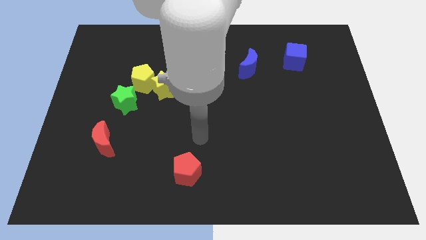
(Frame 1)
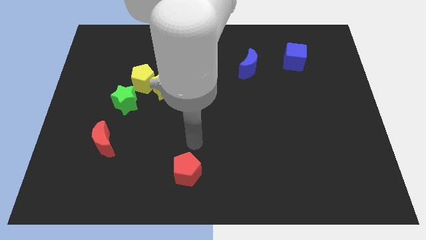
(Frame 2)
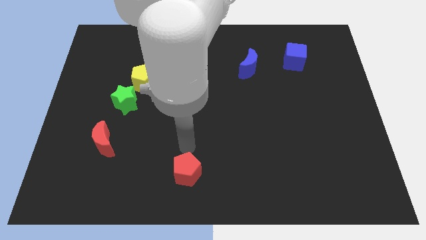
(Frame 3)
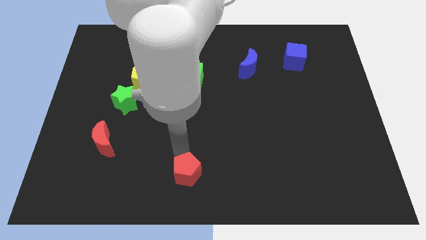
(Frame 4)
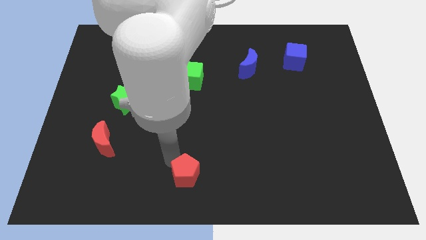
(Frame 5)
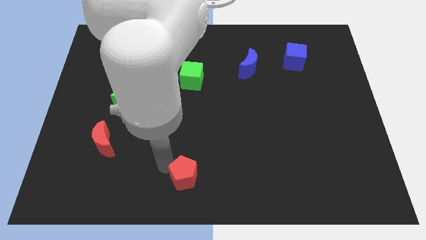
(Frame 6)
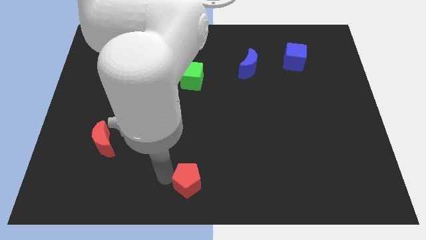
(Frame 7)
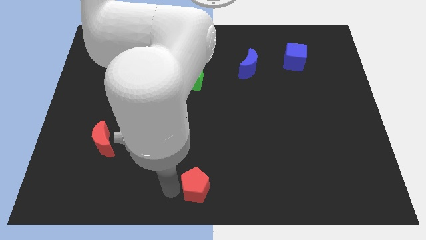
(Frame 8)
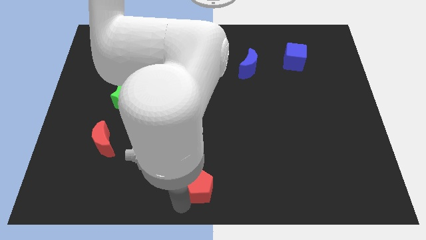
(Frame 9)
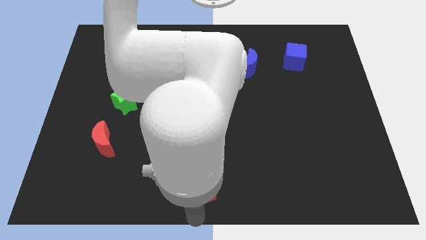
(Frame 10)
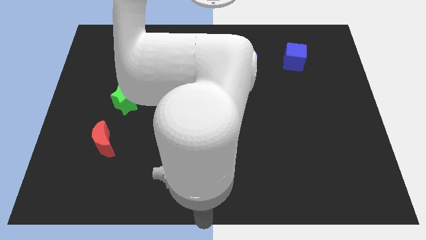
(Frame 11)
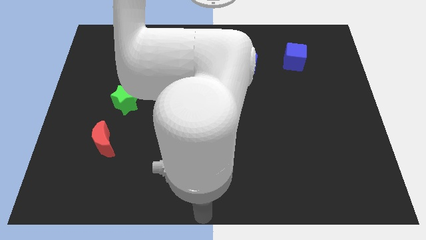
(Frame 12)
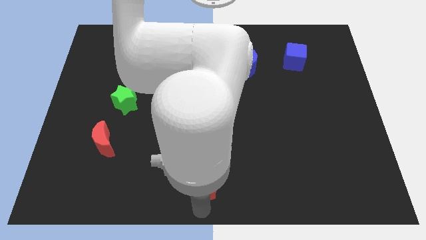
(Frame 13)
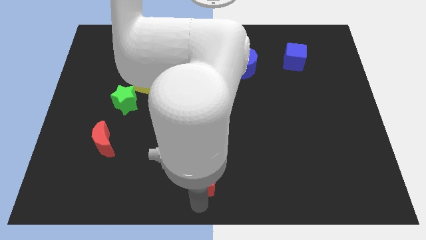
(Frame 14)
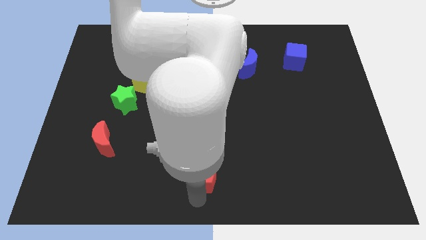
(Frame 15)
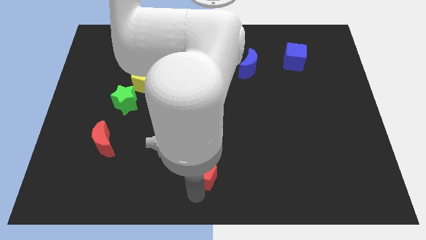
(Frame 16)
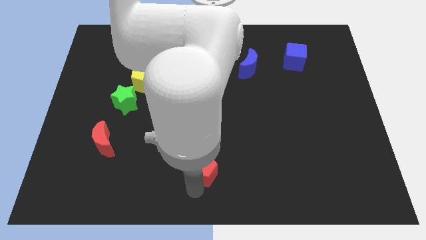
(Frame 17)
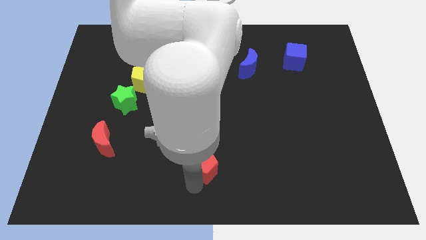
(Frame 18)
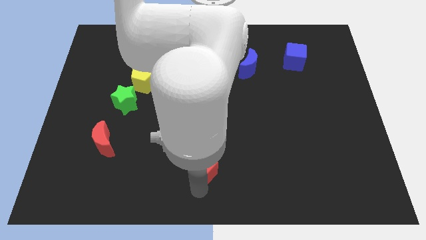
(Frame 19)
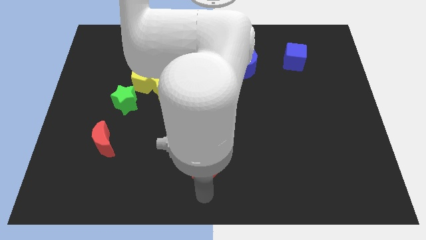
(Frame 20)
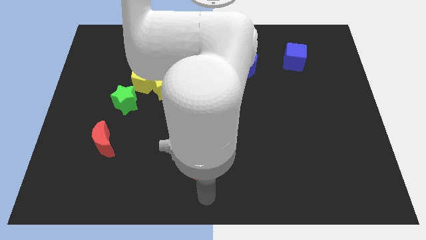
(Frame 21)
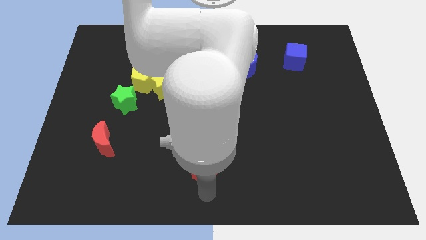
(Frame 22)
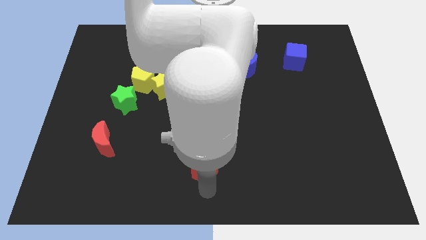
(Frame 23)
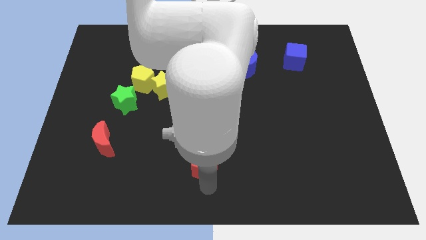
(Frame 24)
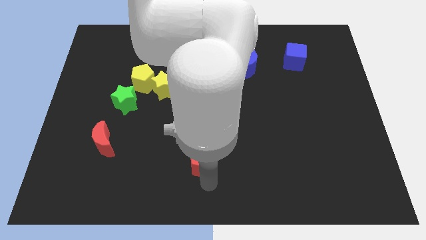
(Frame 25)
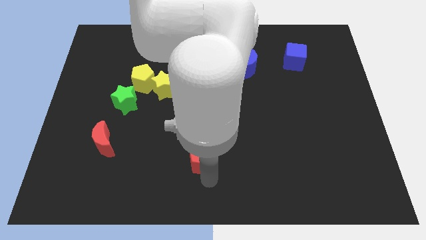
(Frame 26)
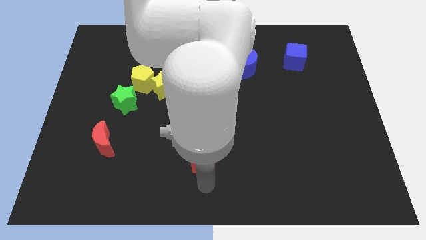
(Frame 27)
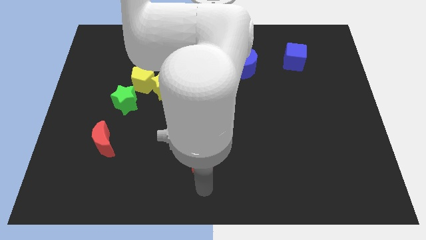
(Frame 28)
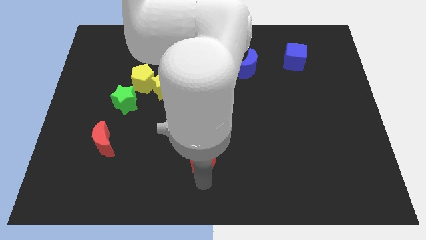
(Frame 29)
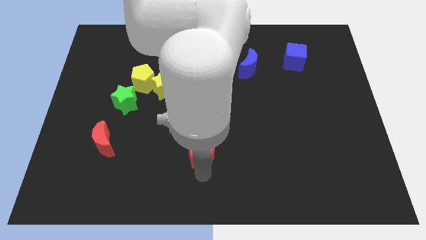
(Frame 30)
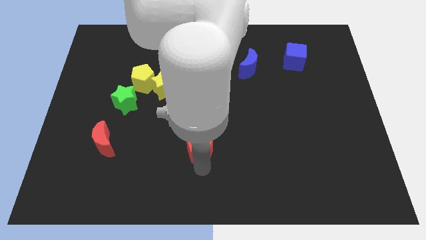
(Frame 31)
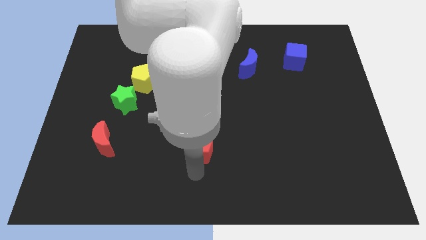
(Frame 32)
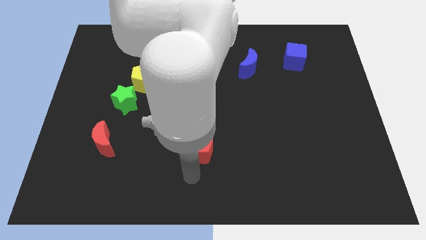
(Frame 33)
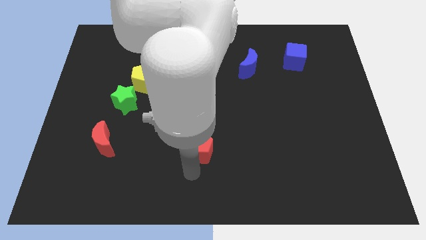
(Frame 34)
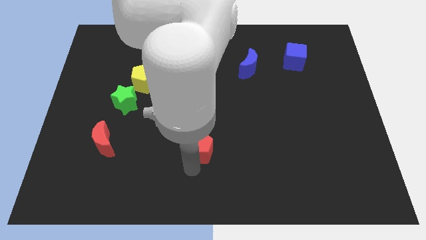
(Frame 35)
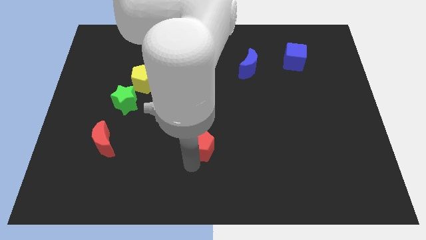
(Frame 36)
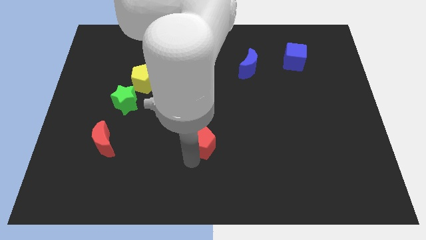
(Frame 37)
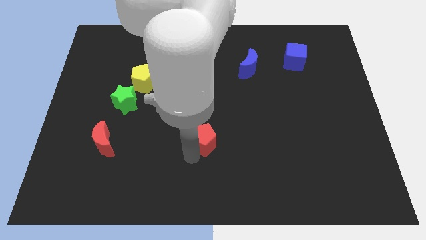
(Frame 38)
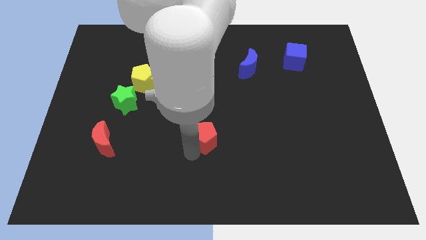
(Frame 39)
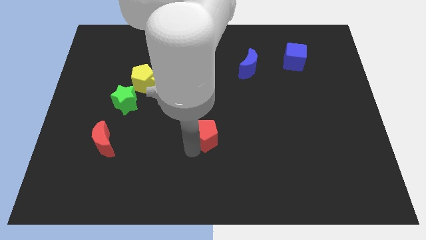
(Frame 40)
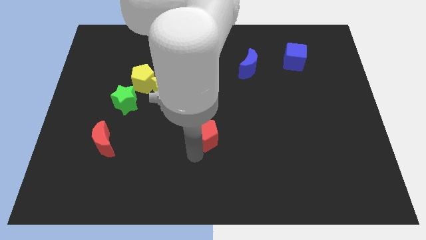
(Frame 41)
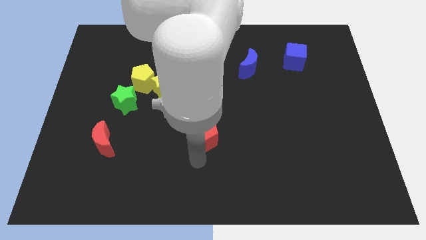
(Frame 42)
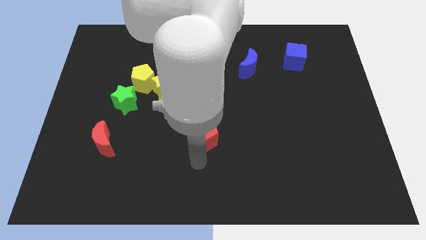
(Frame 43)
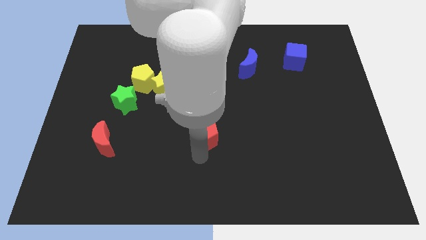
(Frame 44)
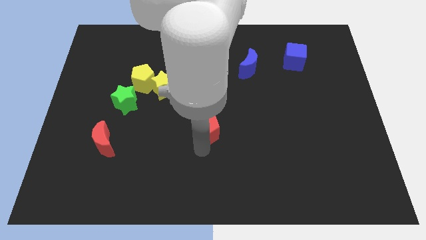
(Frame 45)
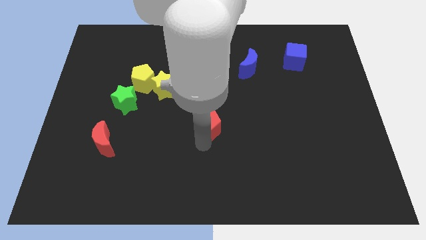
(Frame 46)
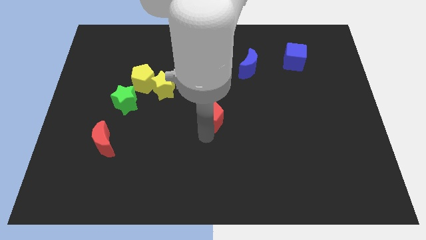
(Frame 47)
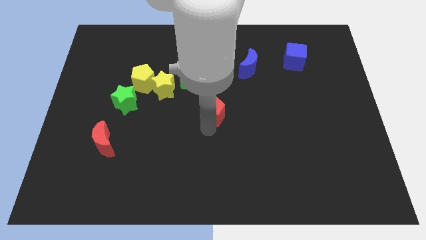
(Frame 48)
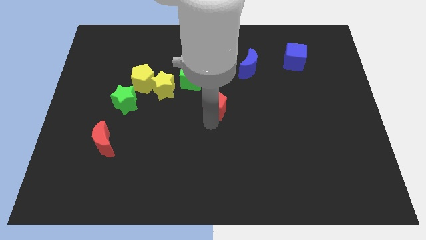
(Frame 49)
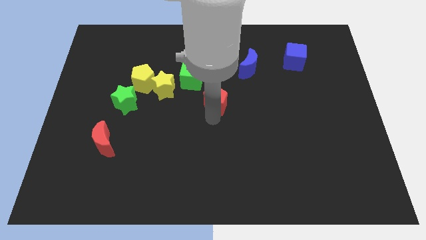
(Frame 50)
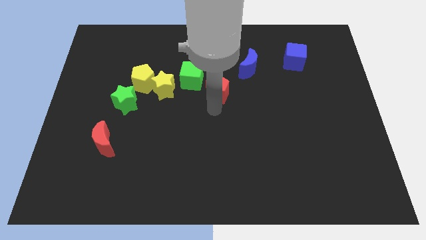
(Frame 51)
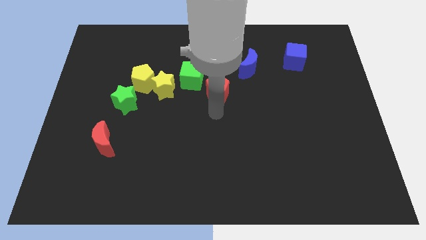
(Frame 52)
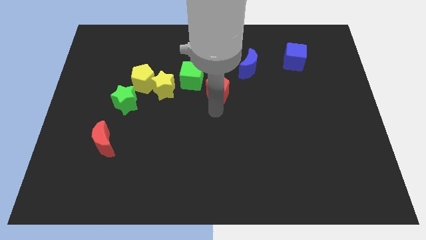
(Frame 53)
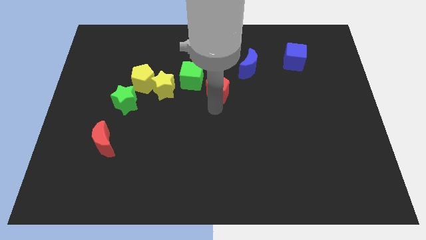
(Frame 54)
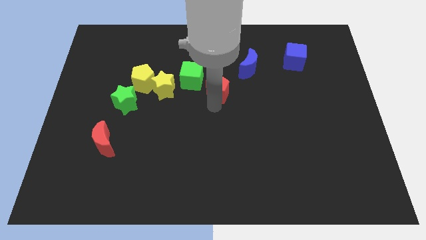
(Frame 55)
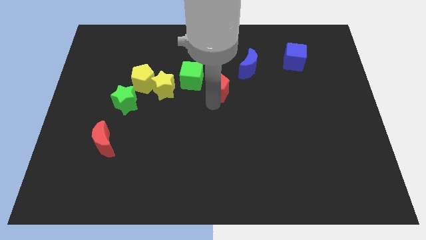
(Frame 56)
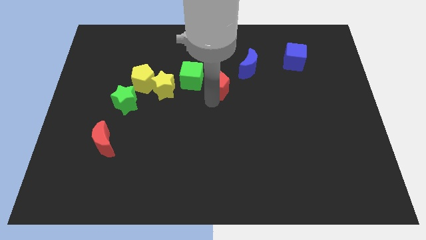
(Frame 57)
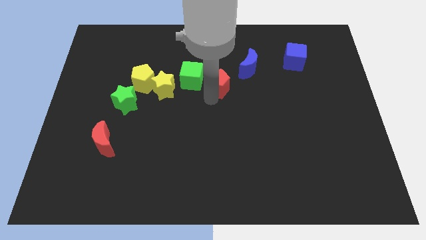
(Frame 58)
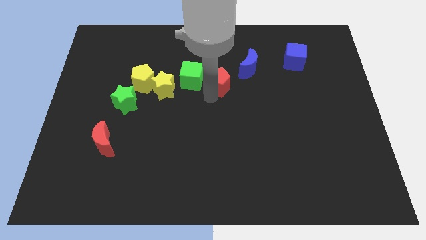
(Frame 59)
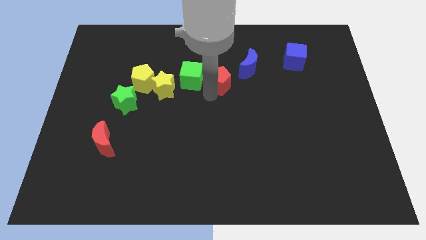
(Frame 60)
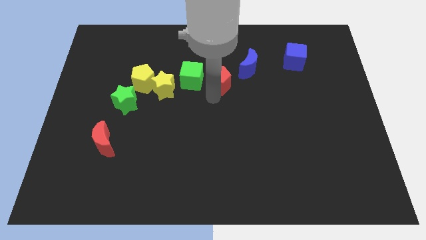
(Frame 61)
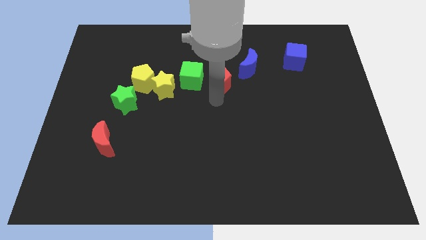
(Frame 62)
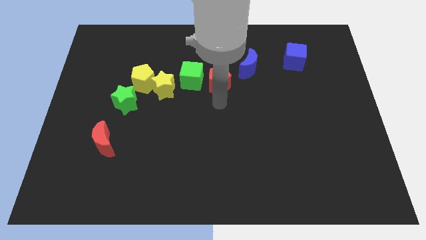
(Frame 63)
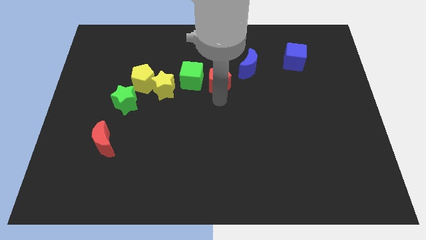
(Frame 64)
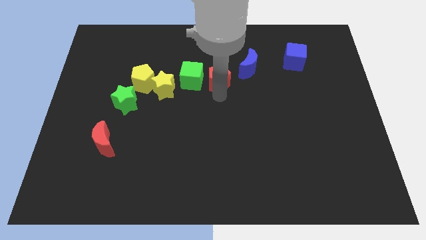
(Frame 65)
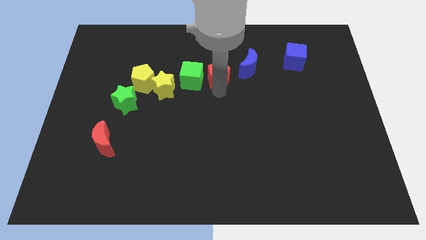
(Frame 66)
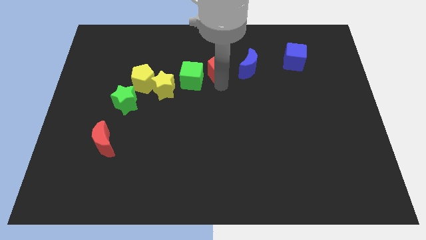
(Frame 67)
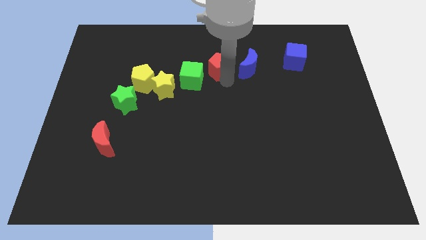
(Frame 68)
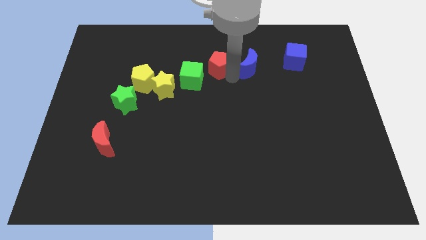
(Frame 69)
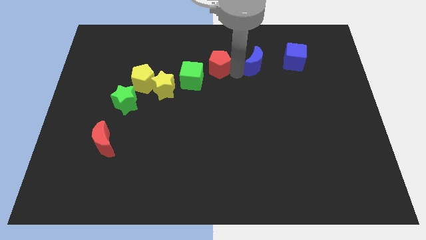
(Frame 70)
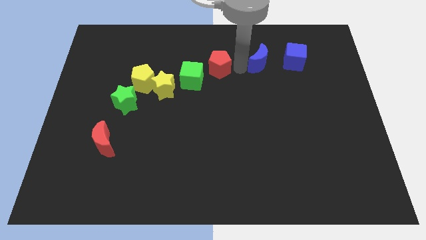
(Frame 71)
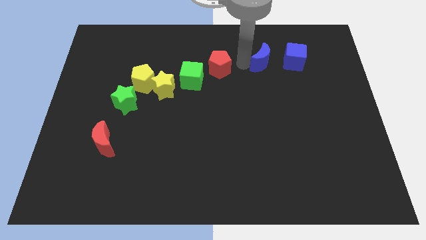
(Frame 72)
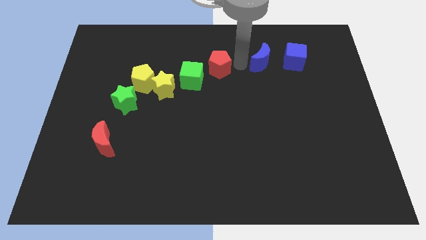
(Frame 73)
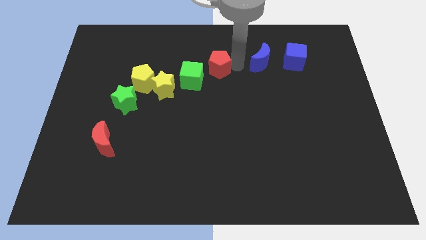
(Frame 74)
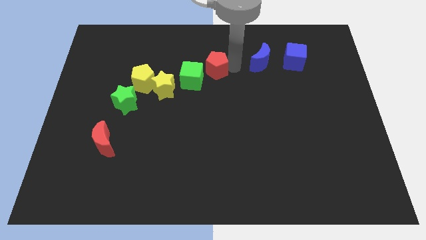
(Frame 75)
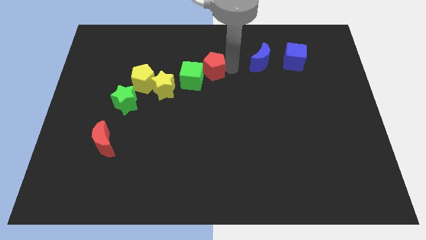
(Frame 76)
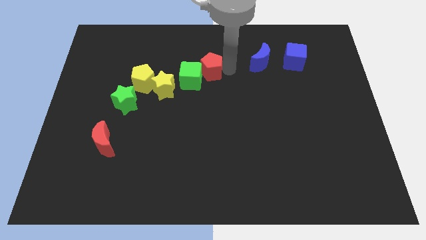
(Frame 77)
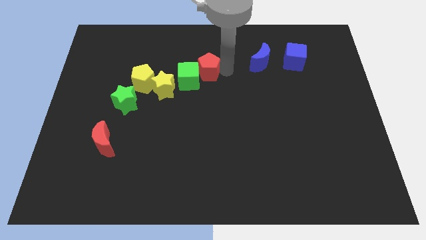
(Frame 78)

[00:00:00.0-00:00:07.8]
push the red pentagon to the top right side of the yellow star
